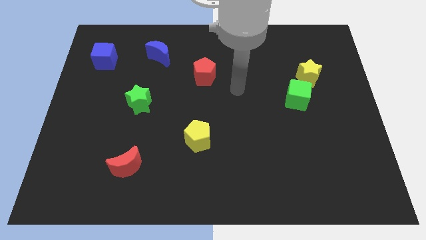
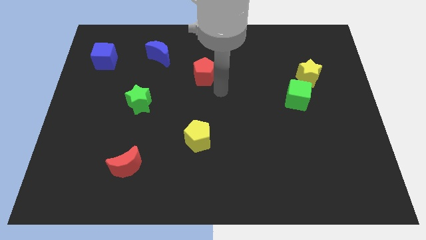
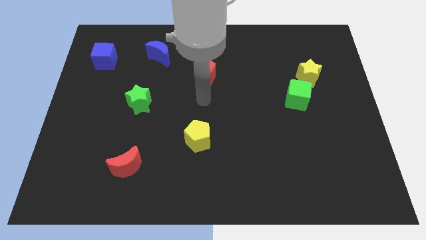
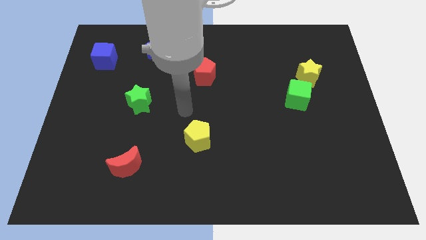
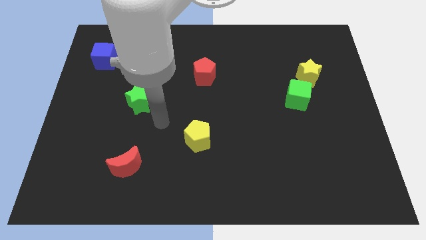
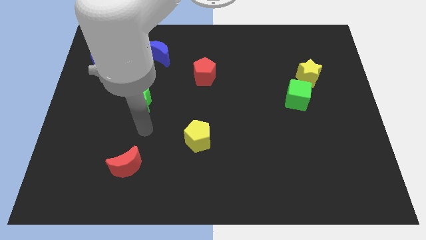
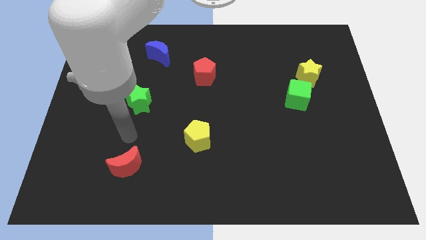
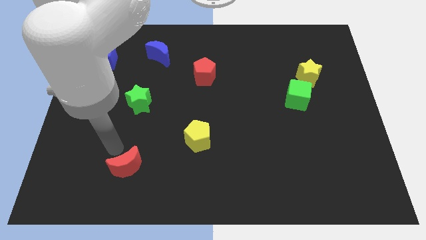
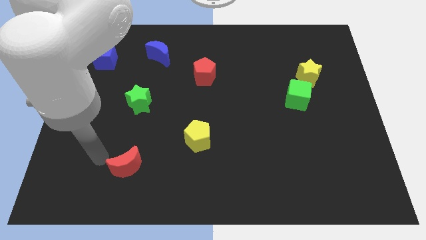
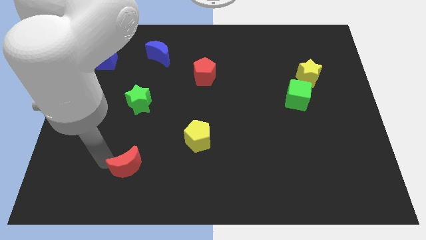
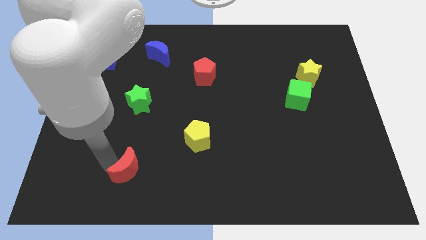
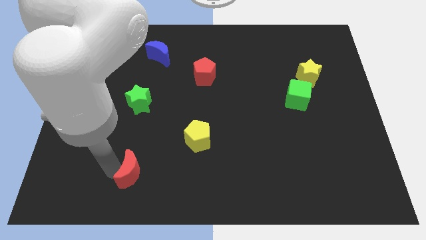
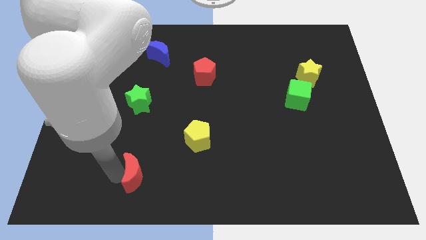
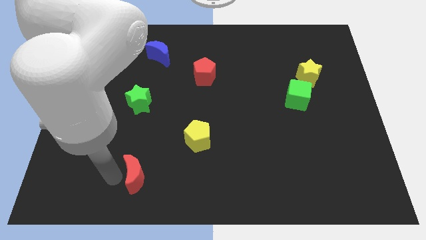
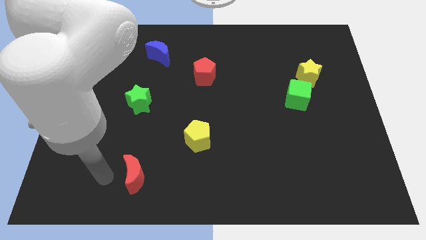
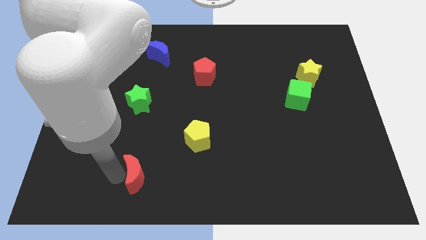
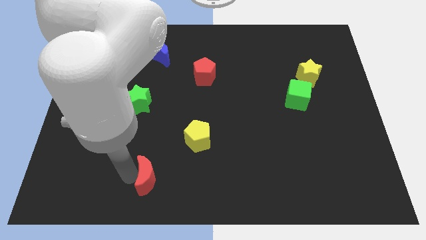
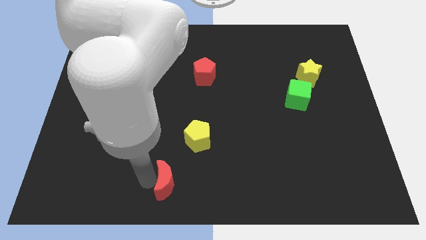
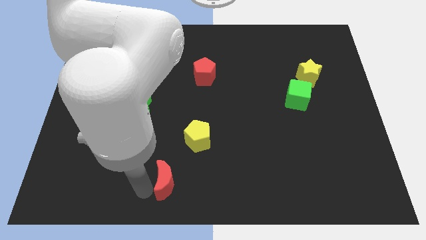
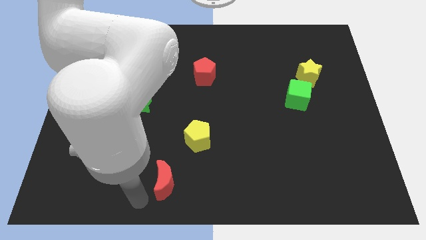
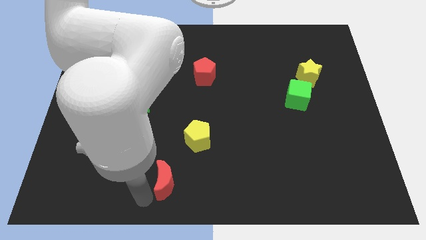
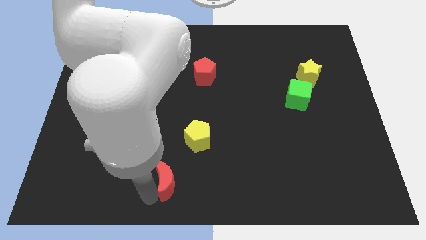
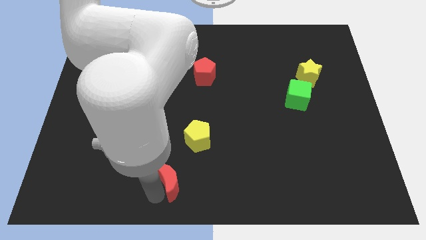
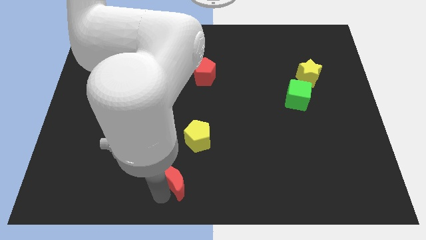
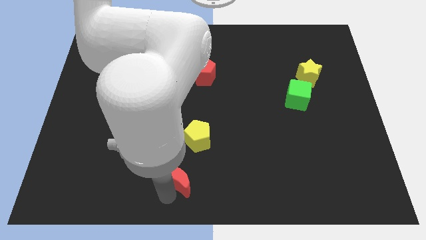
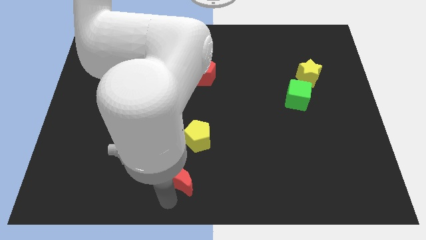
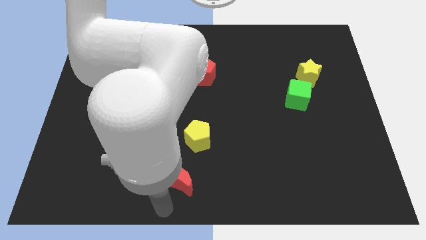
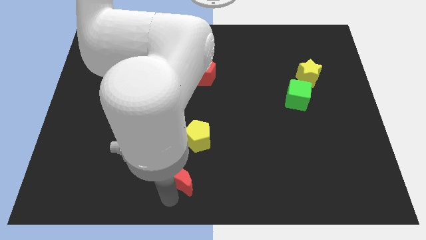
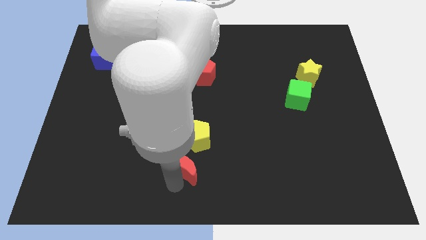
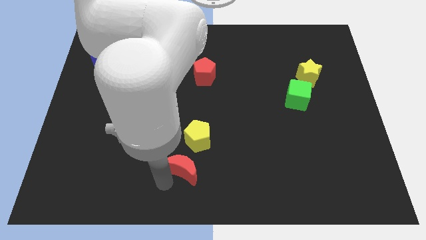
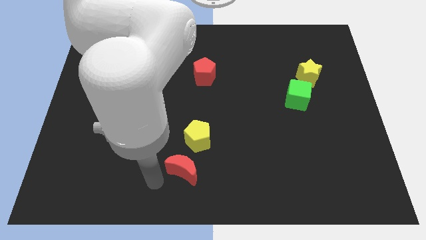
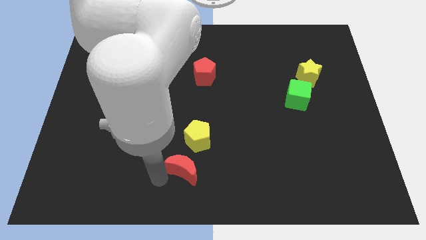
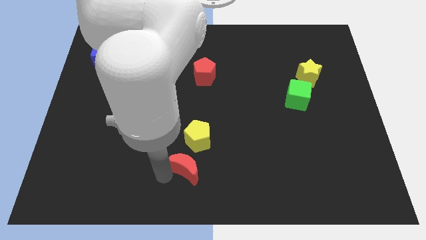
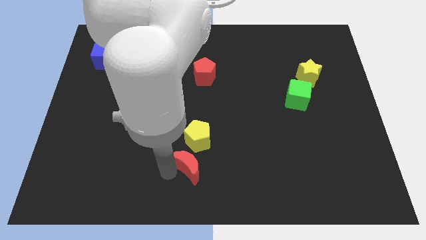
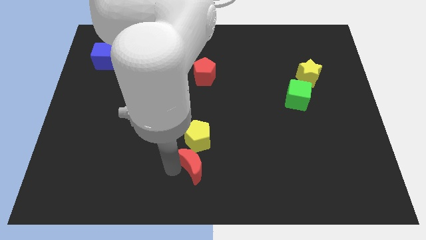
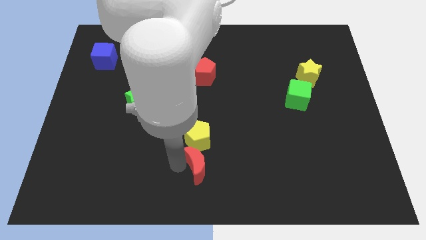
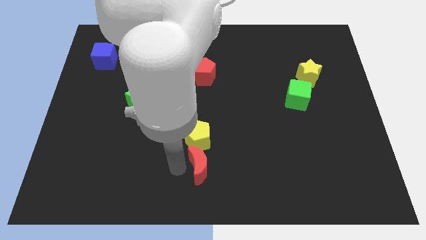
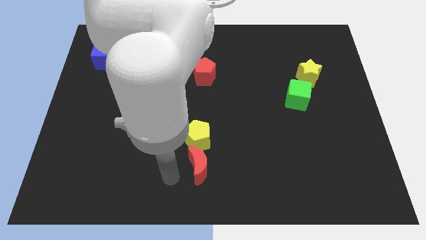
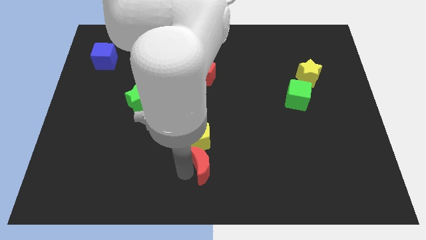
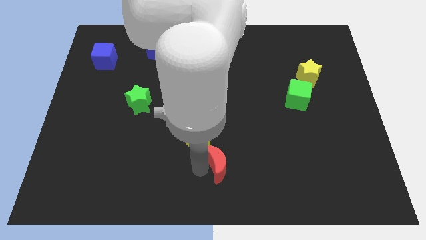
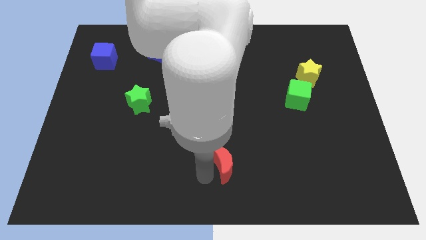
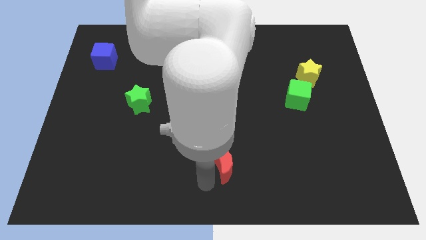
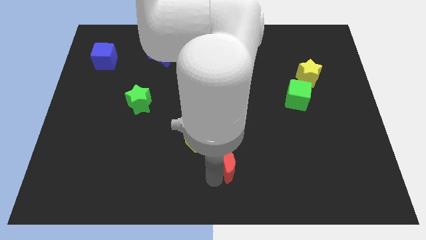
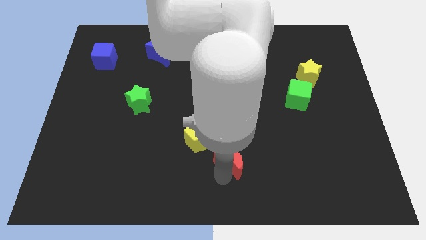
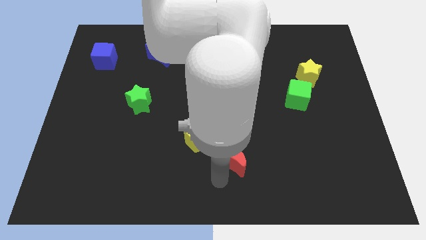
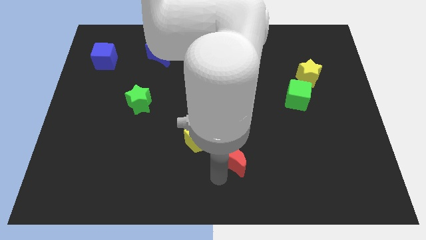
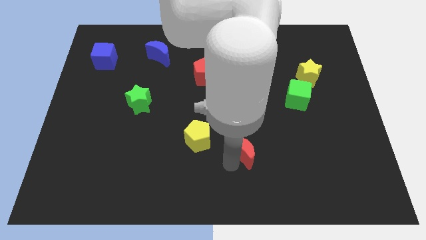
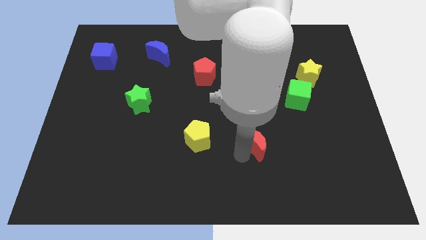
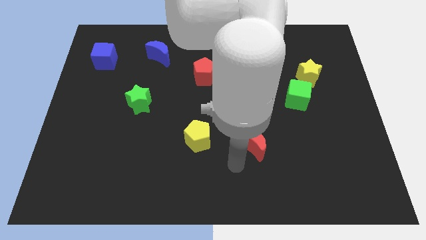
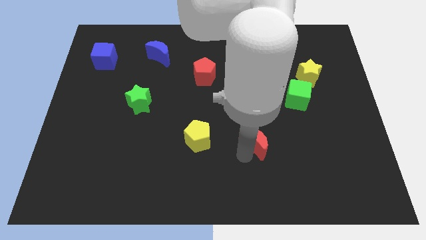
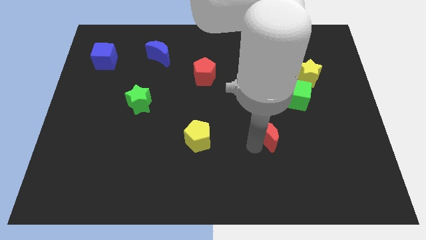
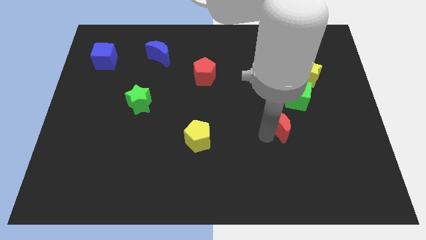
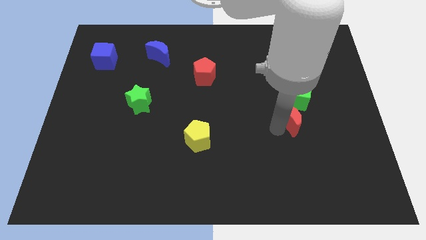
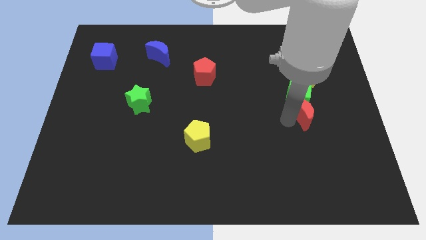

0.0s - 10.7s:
slide the red moon below the yellow star

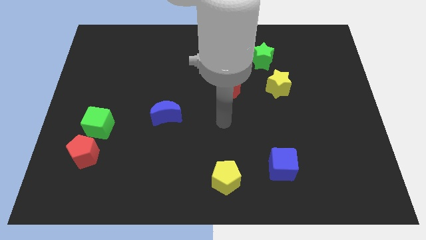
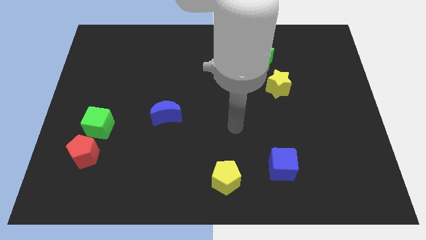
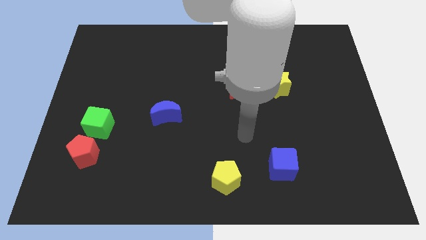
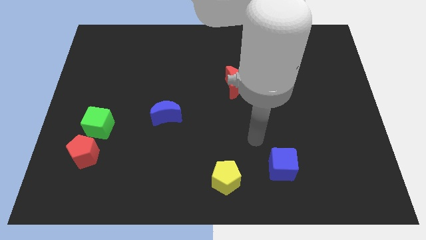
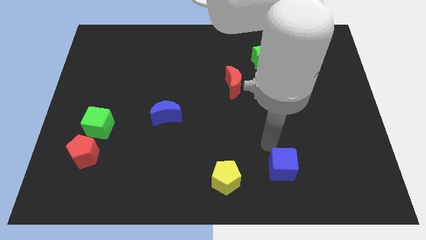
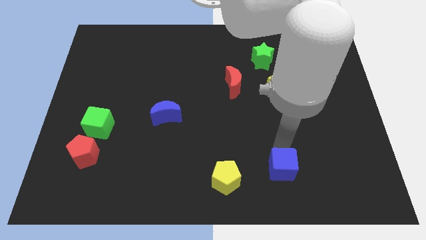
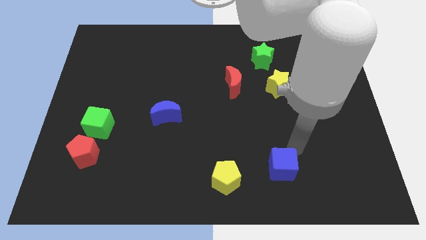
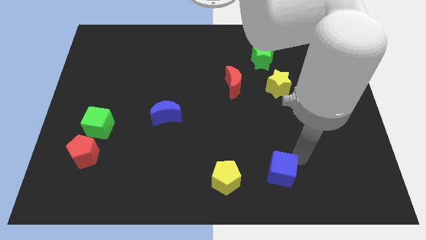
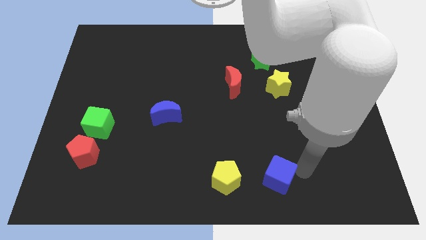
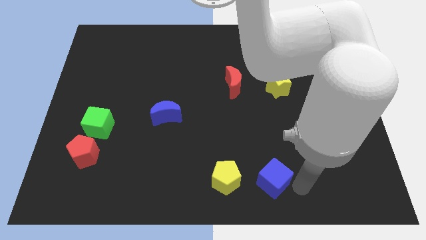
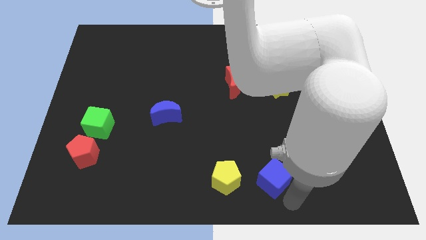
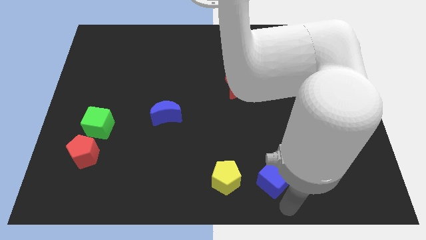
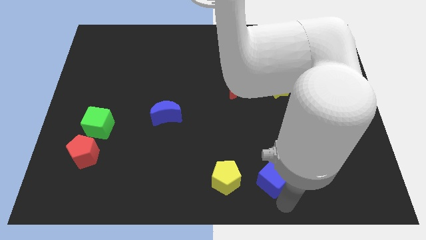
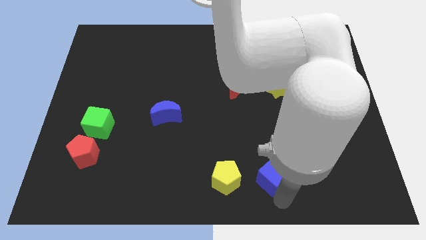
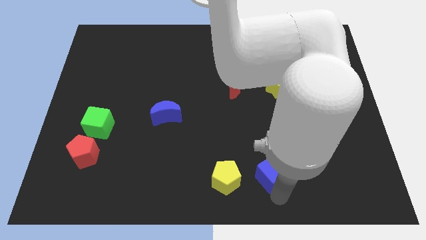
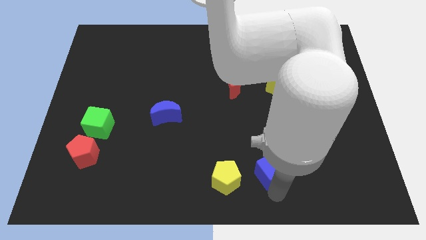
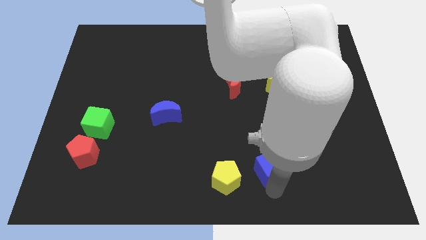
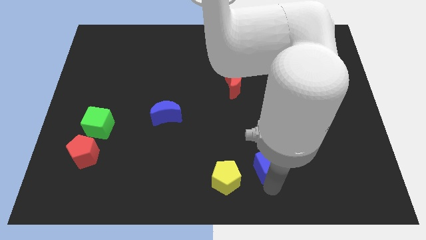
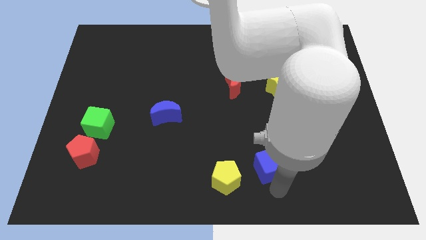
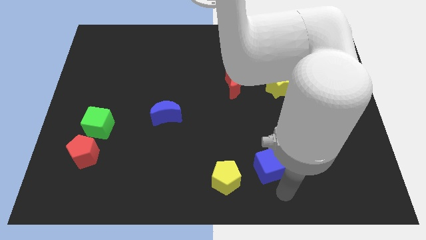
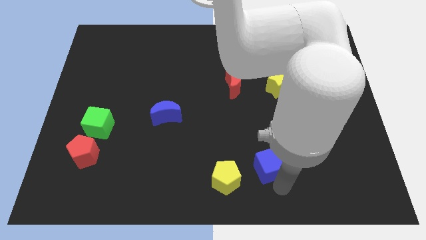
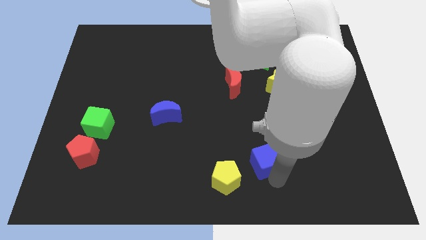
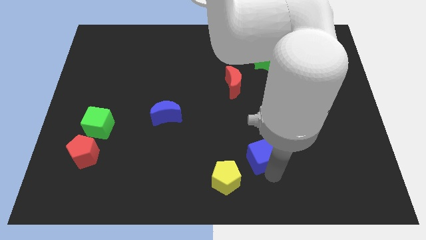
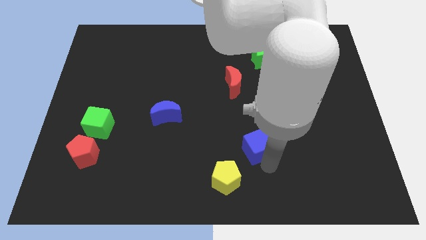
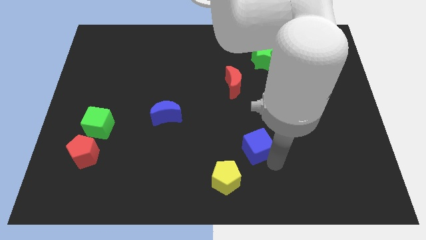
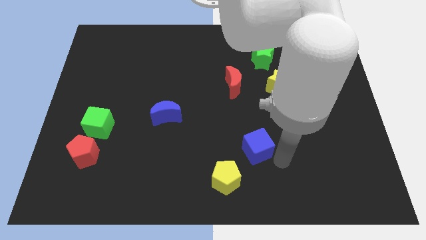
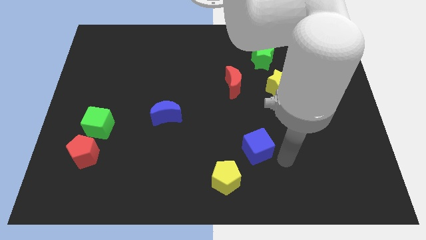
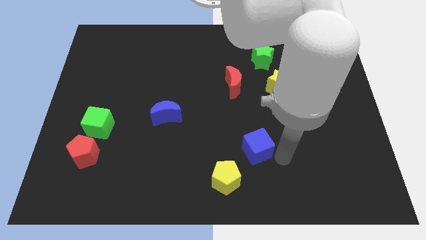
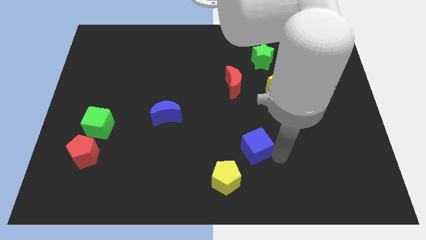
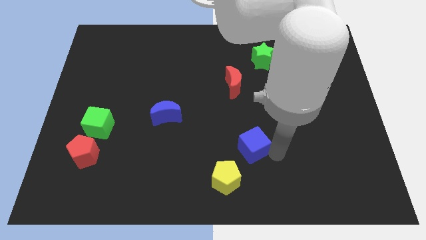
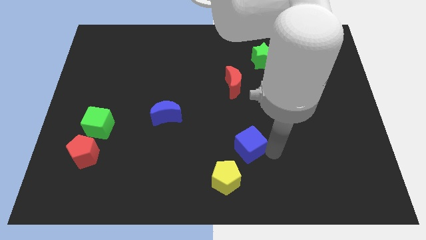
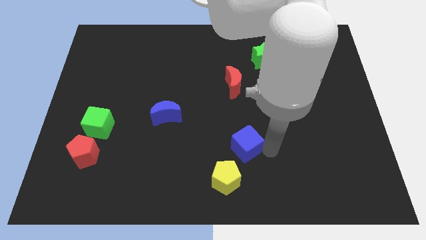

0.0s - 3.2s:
slide the blue cube above the yellow pentagon
